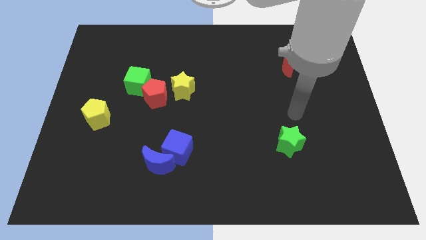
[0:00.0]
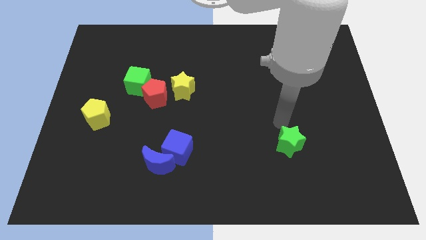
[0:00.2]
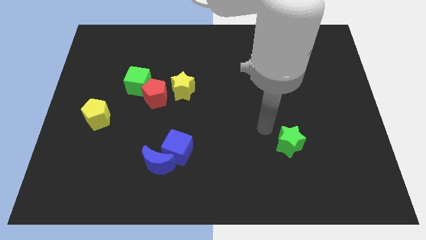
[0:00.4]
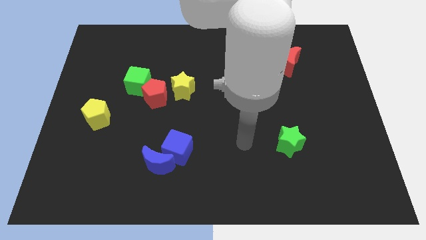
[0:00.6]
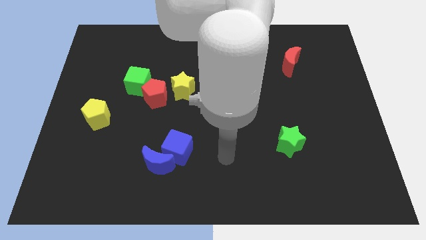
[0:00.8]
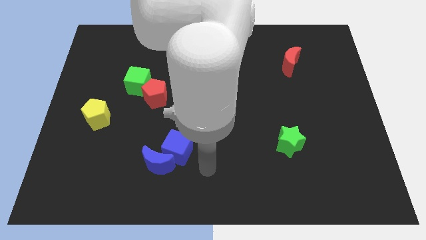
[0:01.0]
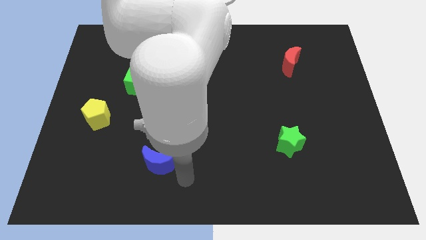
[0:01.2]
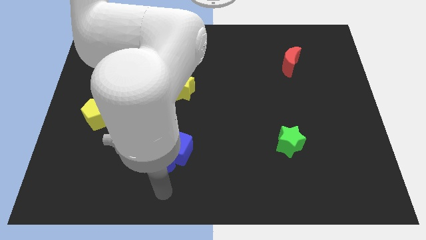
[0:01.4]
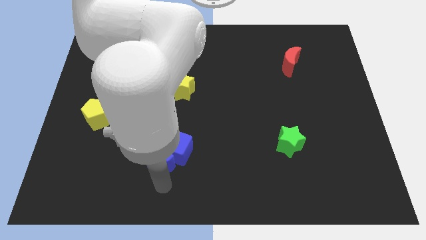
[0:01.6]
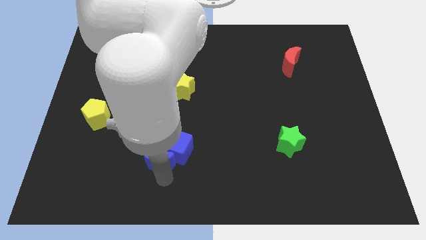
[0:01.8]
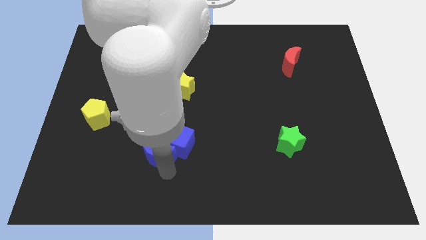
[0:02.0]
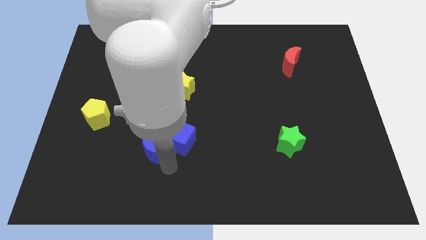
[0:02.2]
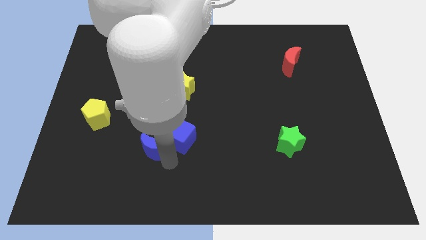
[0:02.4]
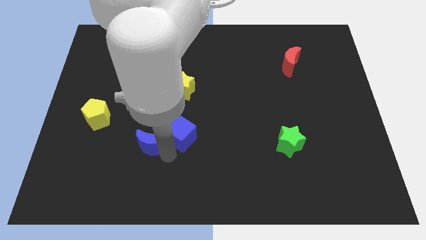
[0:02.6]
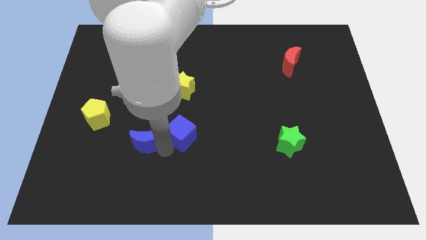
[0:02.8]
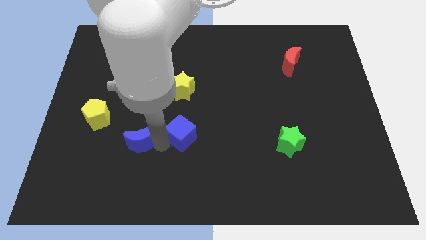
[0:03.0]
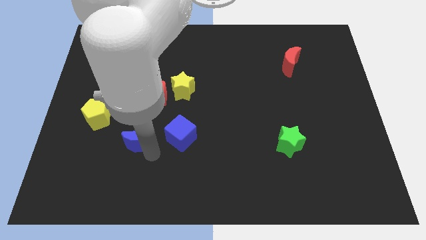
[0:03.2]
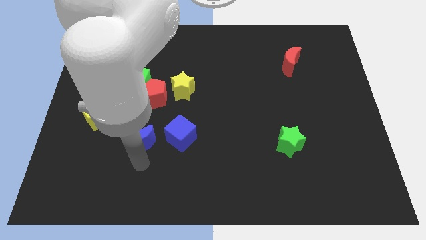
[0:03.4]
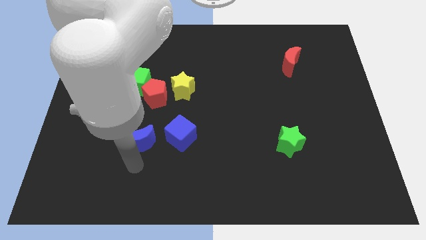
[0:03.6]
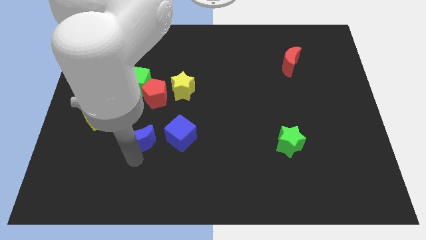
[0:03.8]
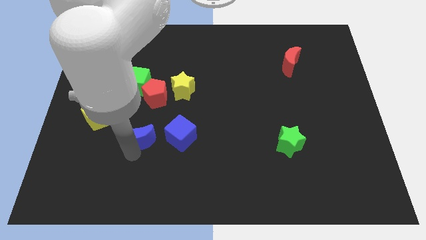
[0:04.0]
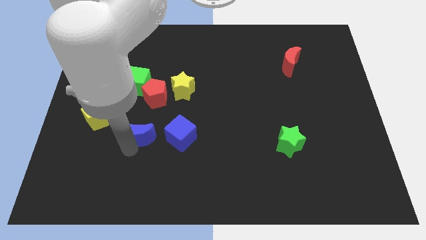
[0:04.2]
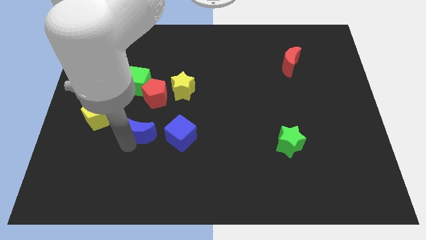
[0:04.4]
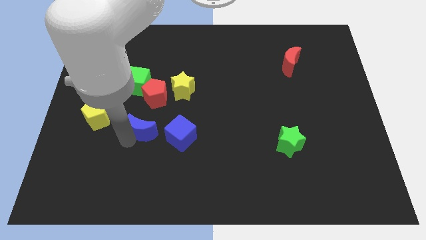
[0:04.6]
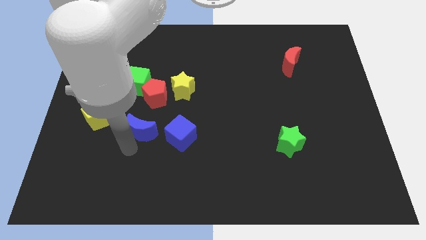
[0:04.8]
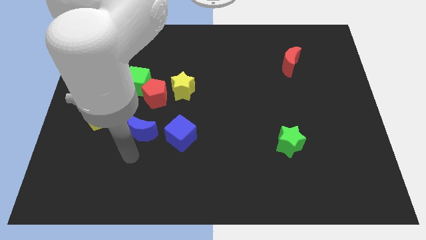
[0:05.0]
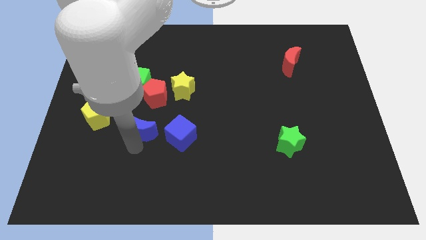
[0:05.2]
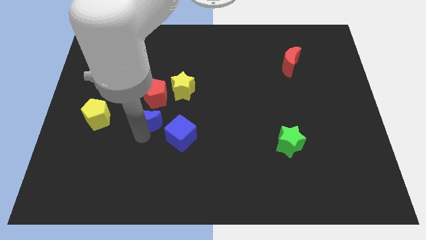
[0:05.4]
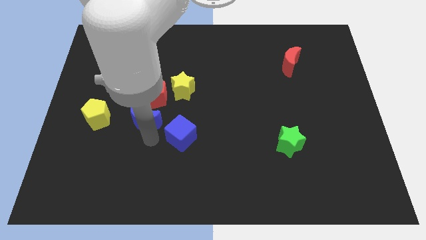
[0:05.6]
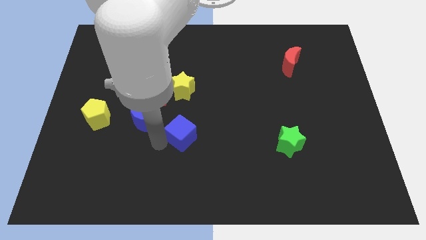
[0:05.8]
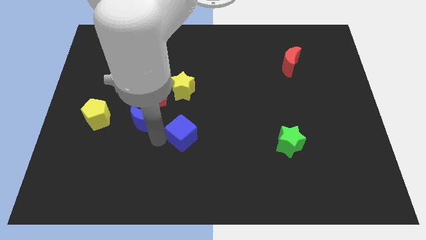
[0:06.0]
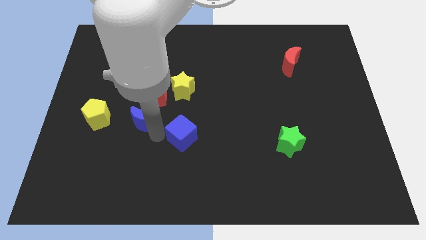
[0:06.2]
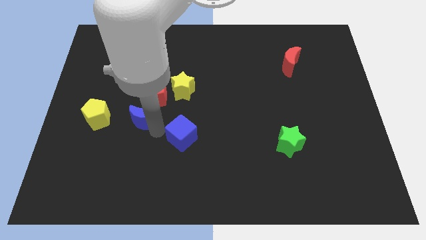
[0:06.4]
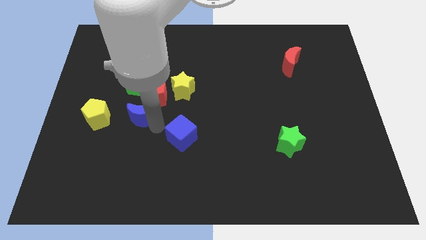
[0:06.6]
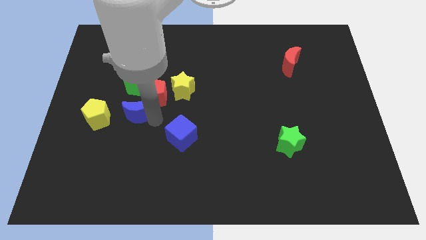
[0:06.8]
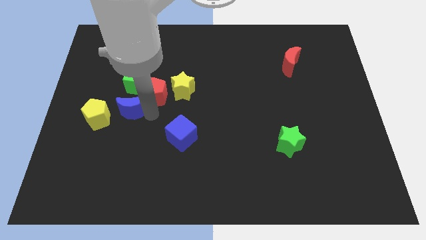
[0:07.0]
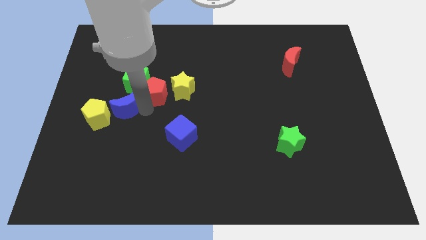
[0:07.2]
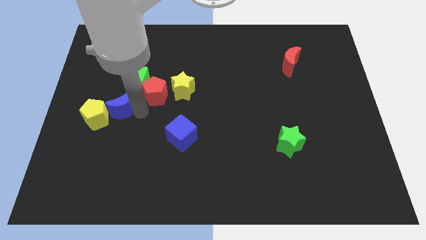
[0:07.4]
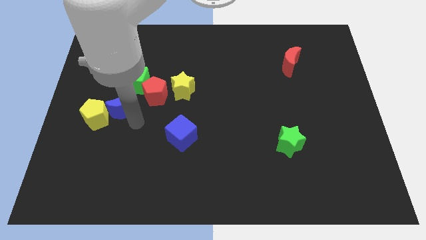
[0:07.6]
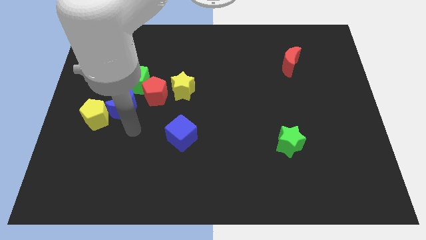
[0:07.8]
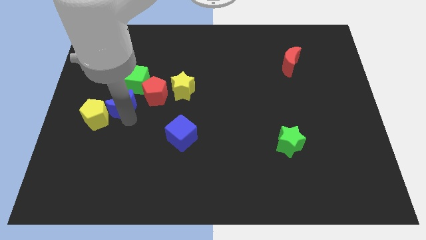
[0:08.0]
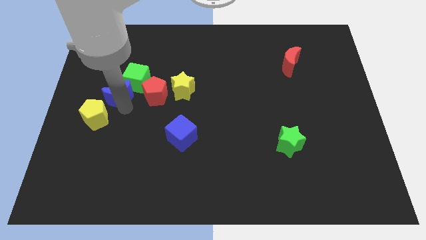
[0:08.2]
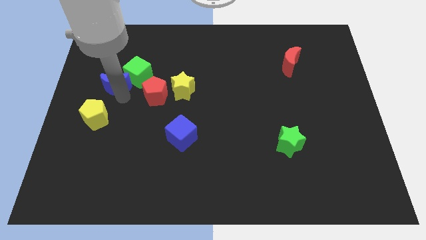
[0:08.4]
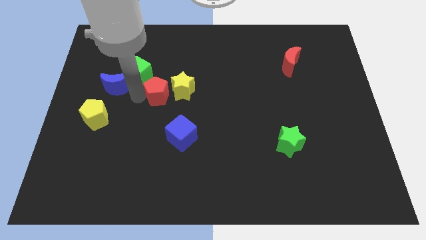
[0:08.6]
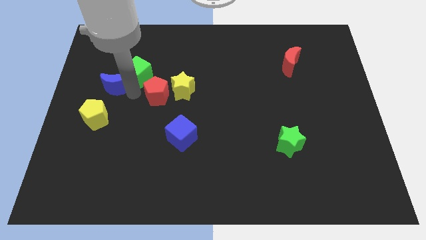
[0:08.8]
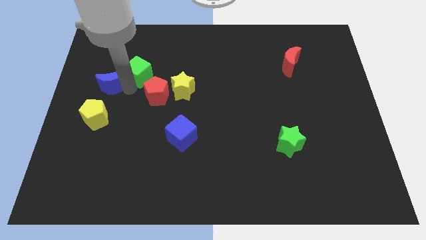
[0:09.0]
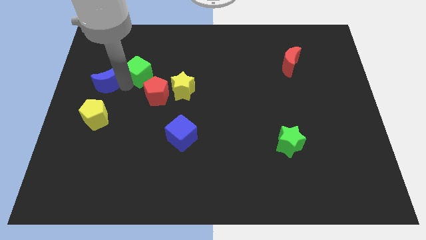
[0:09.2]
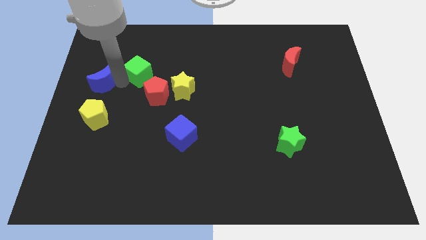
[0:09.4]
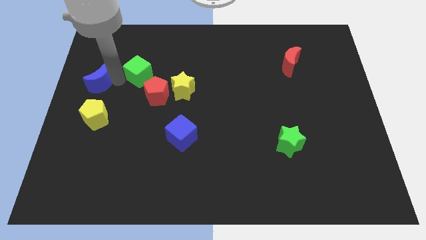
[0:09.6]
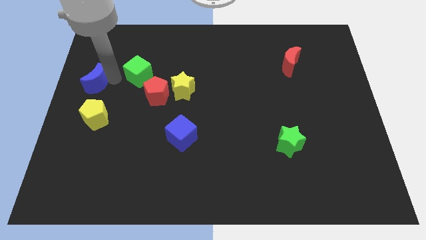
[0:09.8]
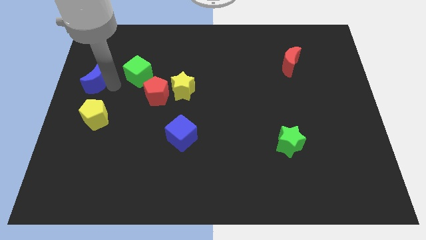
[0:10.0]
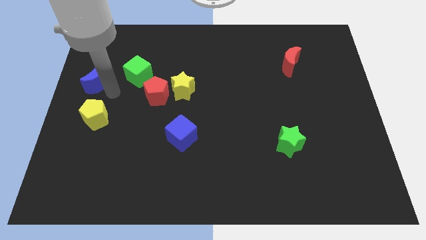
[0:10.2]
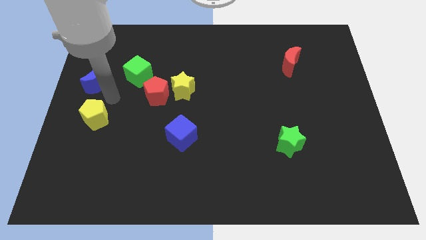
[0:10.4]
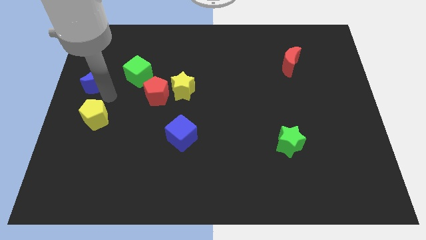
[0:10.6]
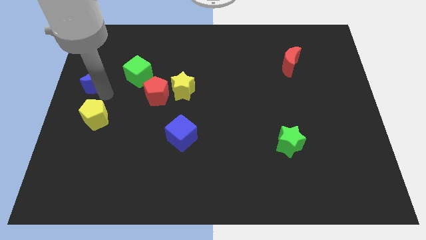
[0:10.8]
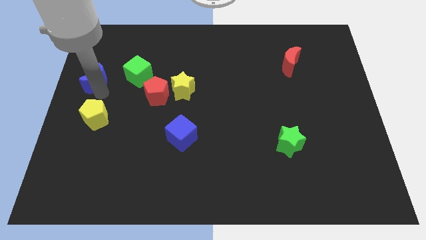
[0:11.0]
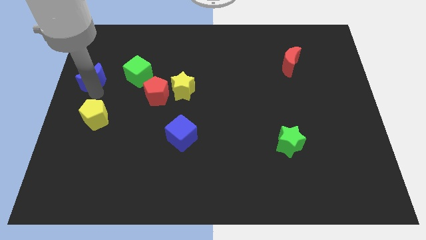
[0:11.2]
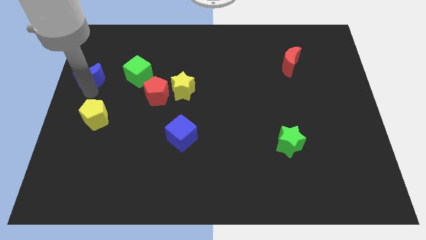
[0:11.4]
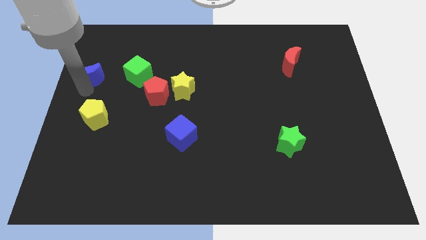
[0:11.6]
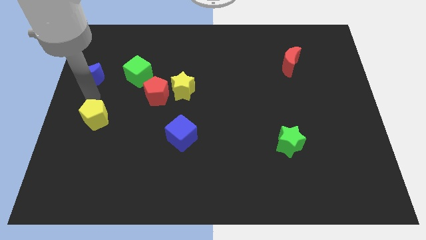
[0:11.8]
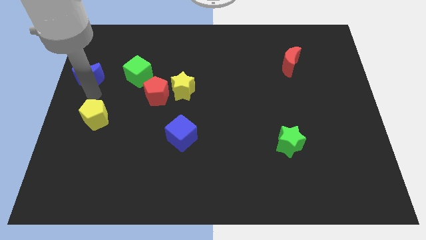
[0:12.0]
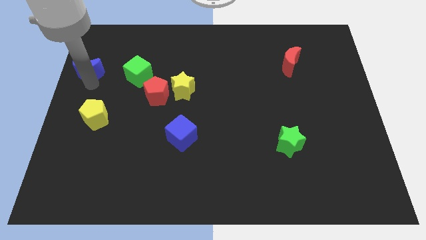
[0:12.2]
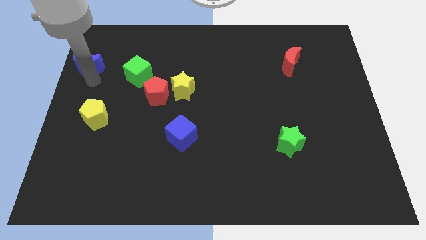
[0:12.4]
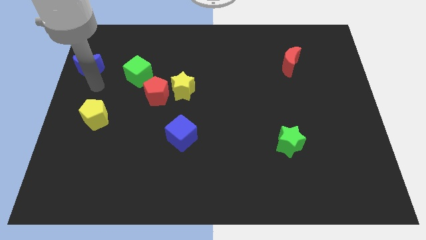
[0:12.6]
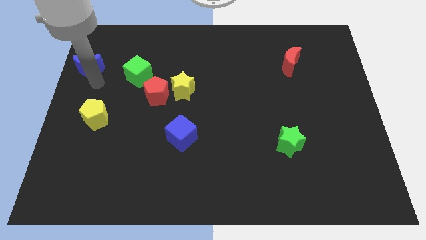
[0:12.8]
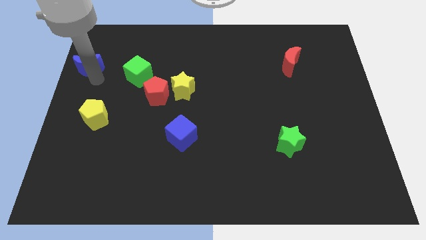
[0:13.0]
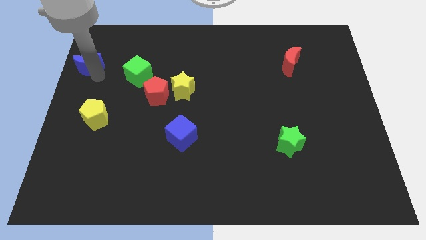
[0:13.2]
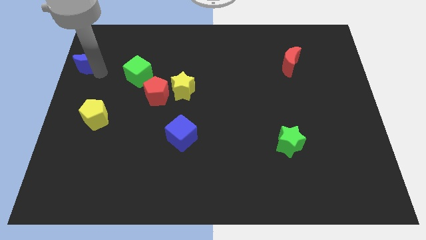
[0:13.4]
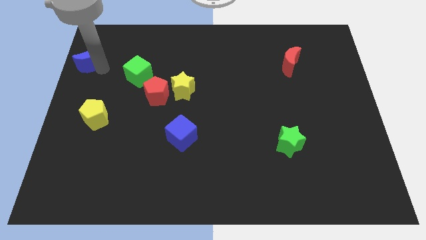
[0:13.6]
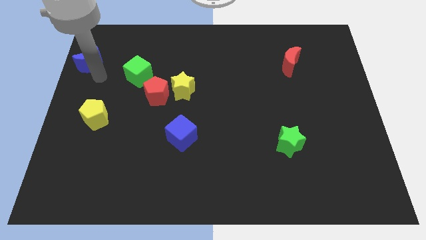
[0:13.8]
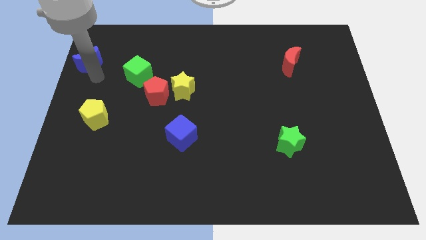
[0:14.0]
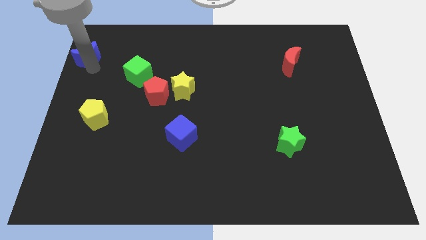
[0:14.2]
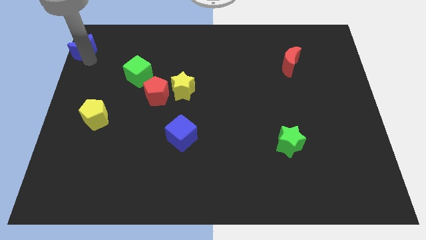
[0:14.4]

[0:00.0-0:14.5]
slide the blue moon to the top left
